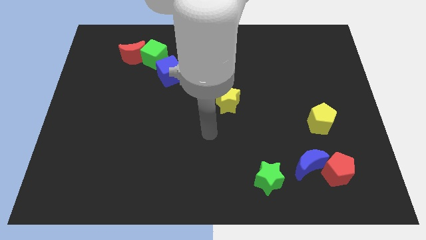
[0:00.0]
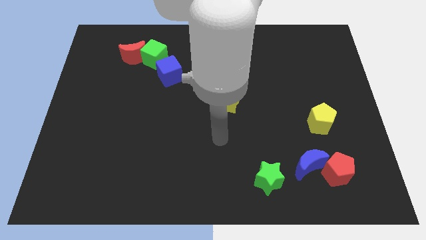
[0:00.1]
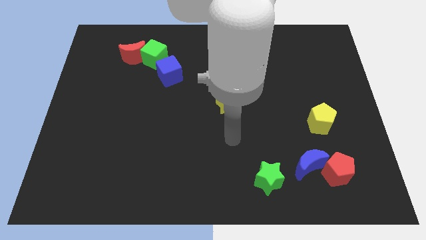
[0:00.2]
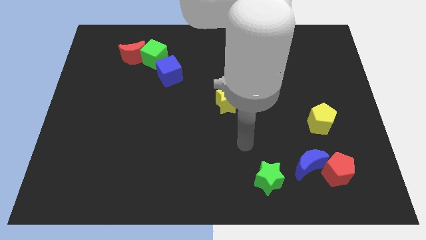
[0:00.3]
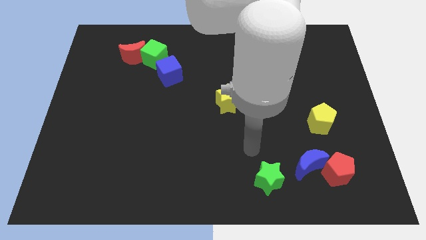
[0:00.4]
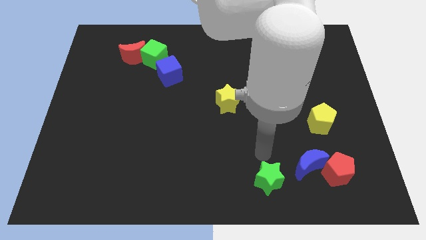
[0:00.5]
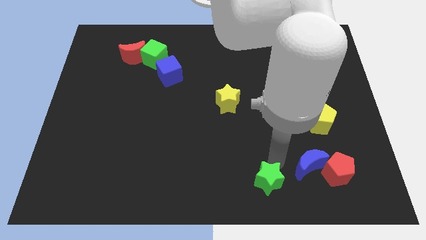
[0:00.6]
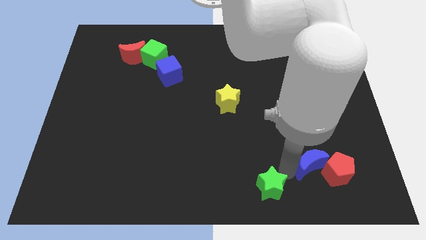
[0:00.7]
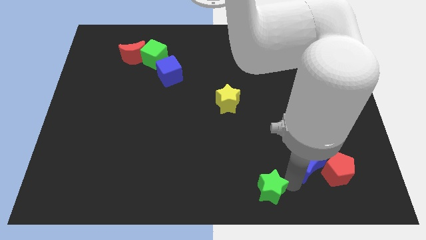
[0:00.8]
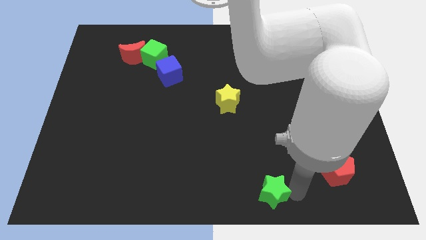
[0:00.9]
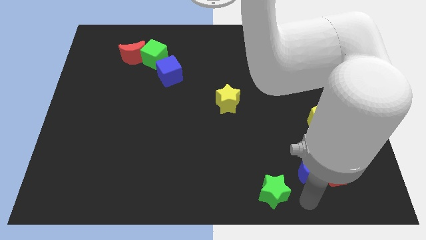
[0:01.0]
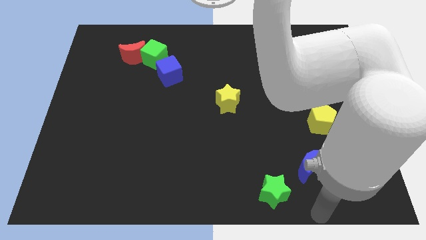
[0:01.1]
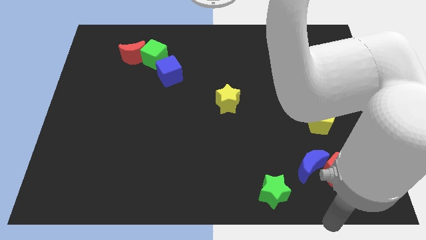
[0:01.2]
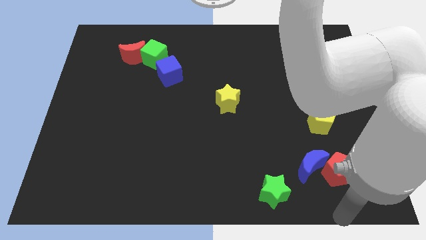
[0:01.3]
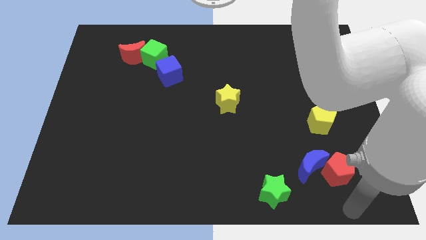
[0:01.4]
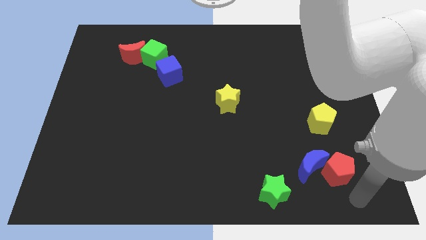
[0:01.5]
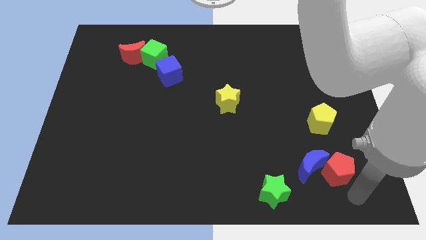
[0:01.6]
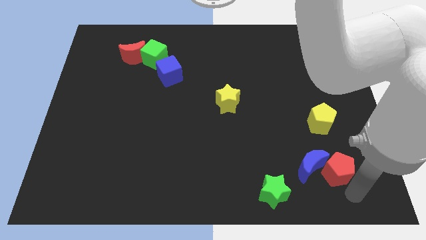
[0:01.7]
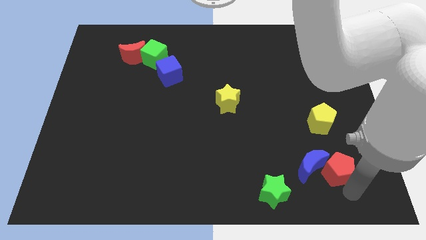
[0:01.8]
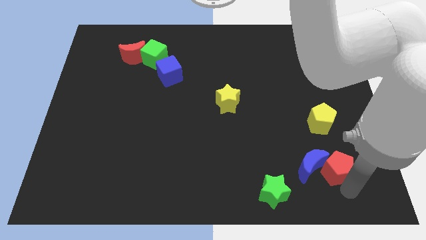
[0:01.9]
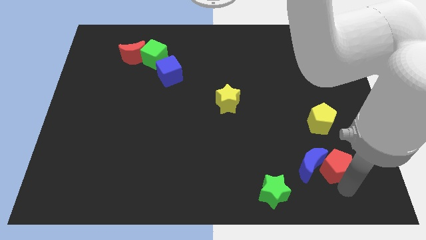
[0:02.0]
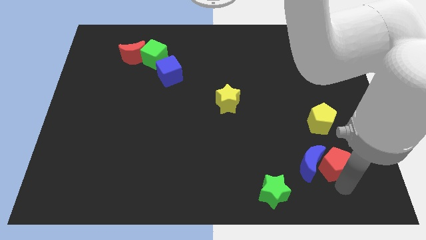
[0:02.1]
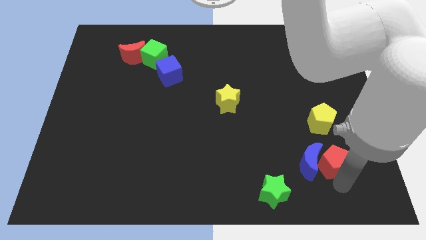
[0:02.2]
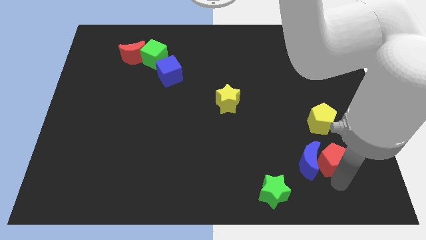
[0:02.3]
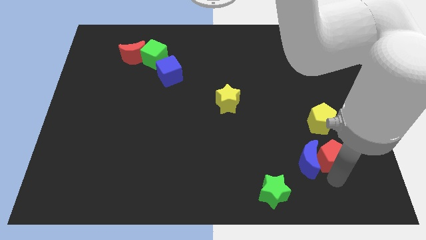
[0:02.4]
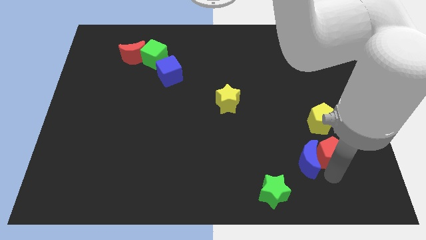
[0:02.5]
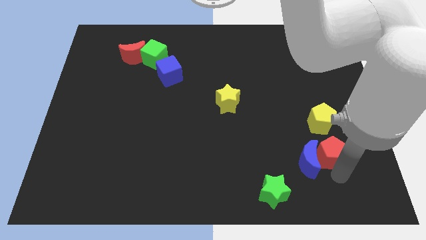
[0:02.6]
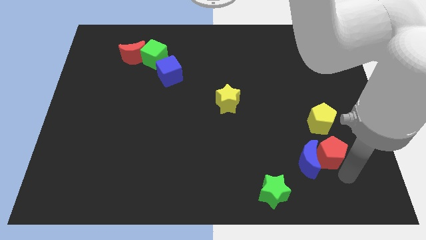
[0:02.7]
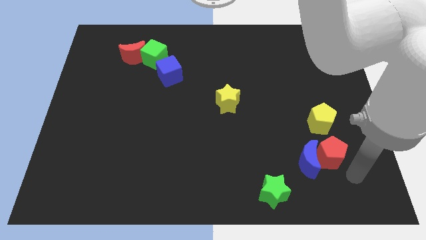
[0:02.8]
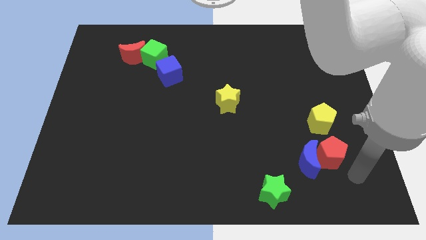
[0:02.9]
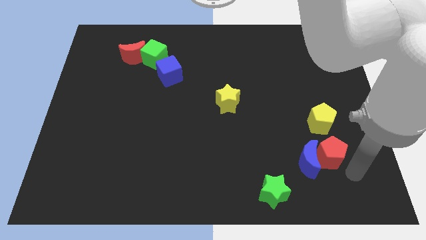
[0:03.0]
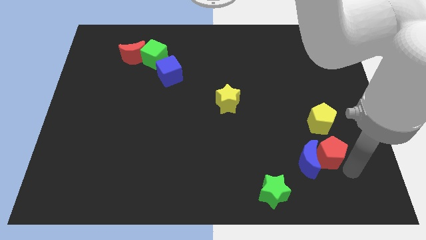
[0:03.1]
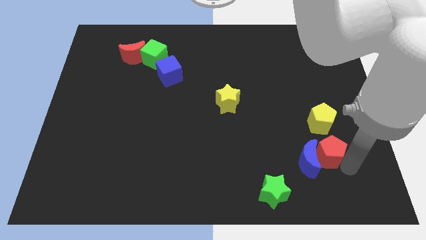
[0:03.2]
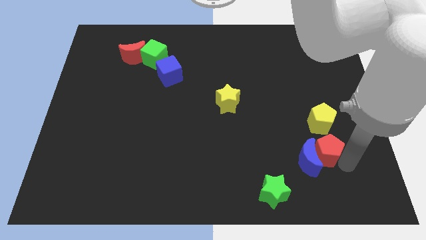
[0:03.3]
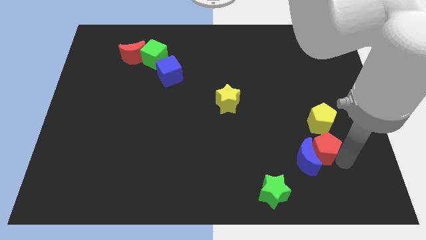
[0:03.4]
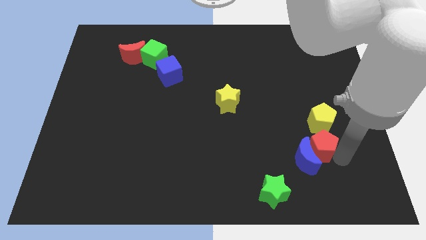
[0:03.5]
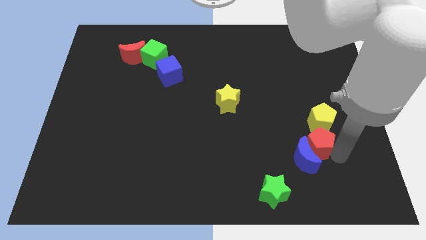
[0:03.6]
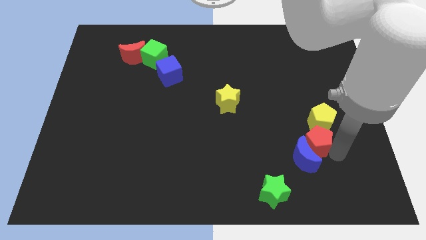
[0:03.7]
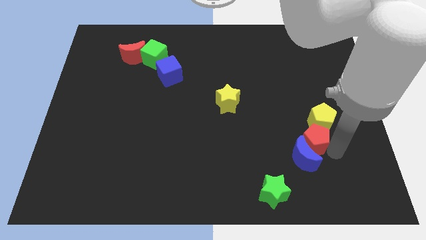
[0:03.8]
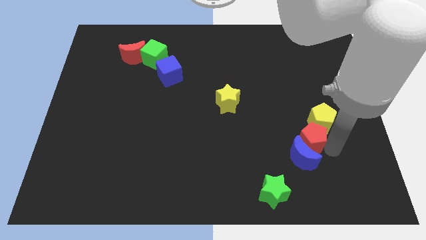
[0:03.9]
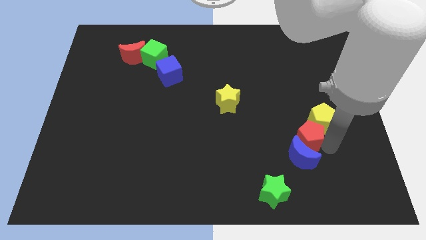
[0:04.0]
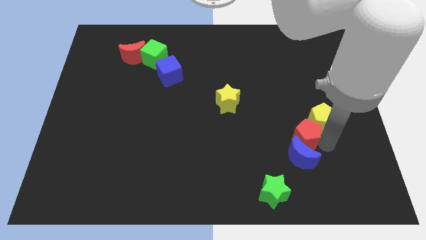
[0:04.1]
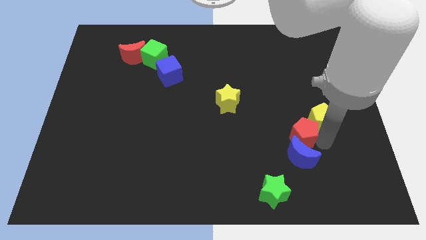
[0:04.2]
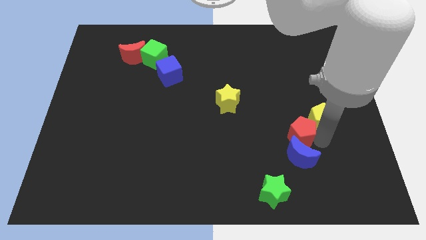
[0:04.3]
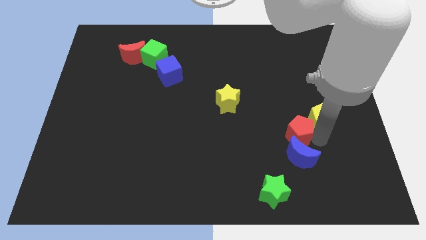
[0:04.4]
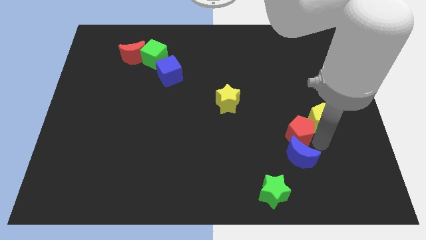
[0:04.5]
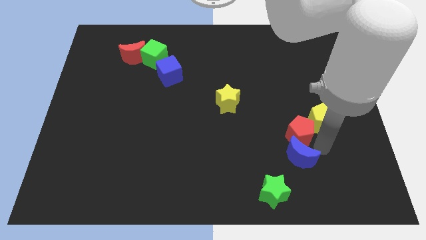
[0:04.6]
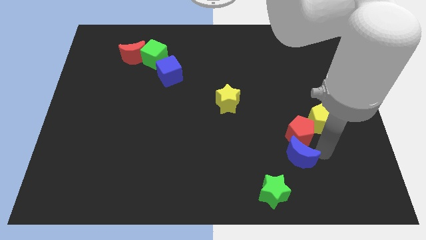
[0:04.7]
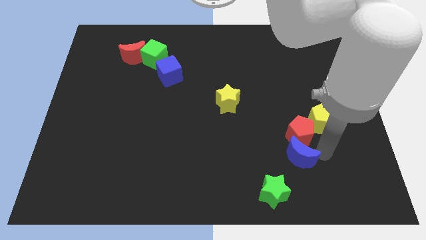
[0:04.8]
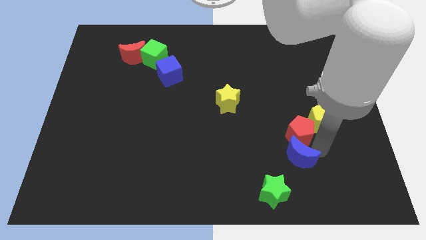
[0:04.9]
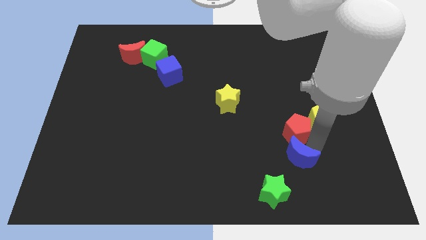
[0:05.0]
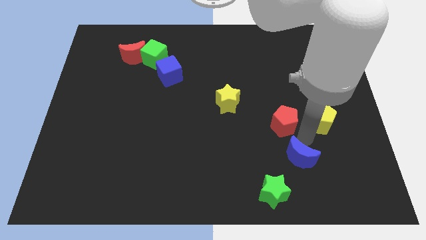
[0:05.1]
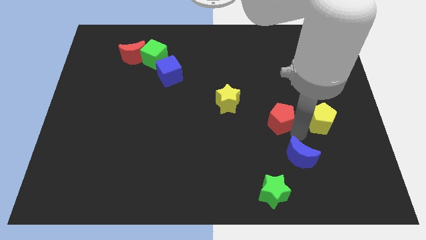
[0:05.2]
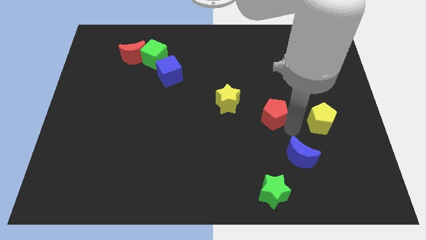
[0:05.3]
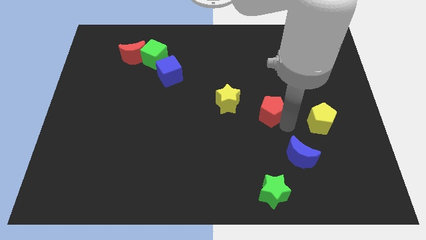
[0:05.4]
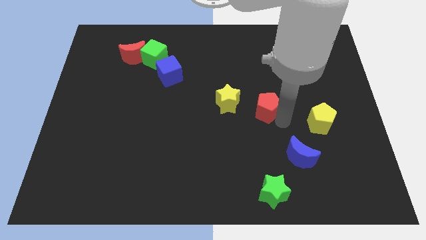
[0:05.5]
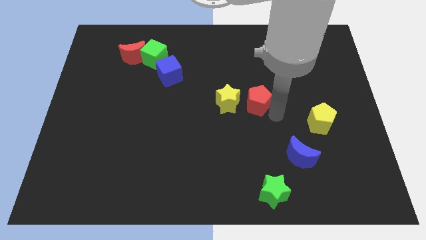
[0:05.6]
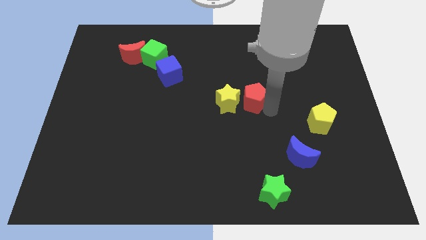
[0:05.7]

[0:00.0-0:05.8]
push the red pentagon to the yellow star

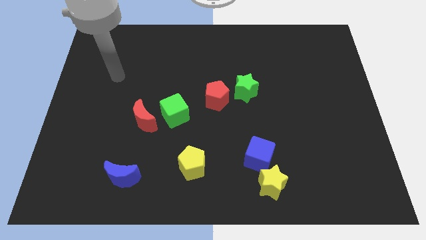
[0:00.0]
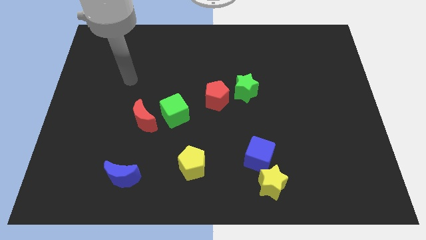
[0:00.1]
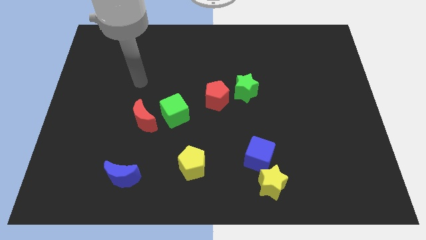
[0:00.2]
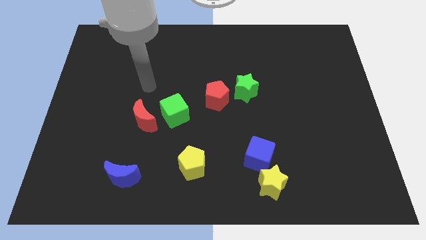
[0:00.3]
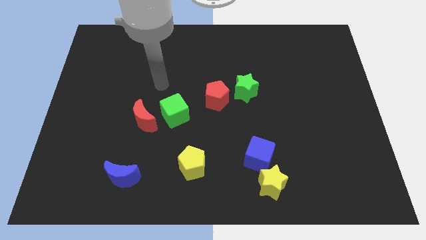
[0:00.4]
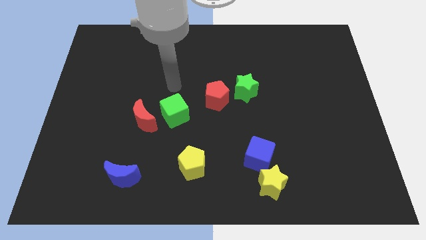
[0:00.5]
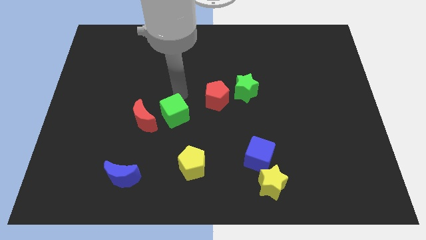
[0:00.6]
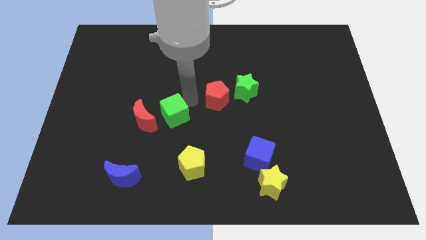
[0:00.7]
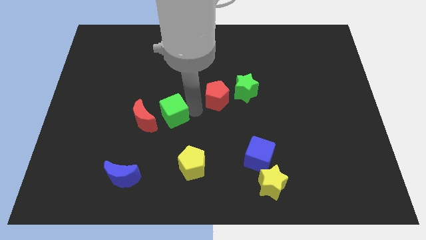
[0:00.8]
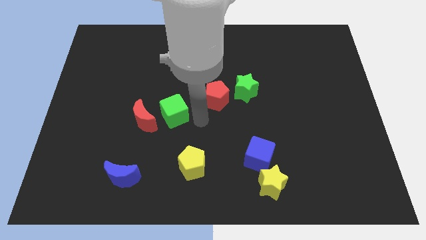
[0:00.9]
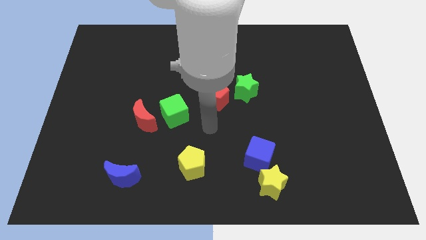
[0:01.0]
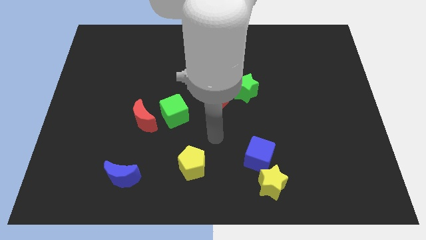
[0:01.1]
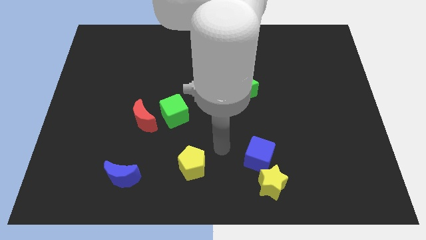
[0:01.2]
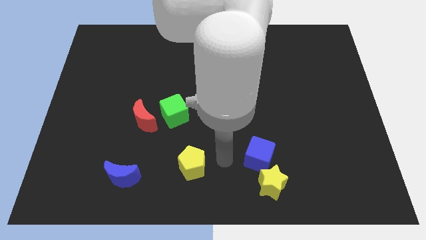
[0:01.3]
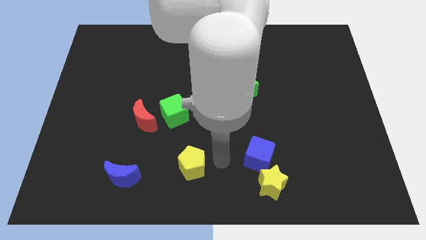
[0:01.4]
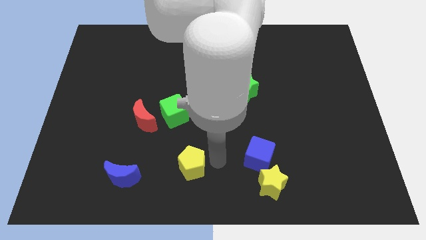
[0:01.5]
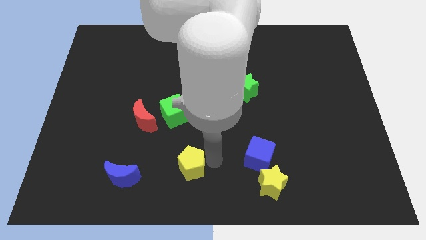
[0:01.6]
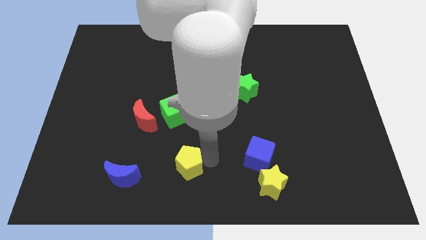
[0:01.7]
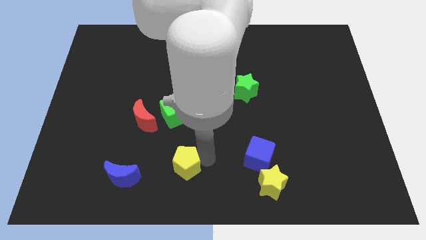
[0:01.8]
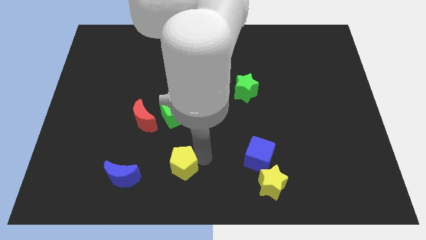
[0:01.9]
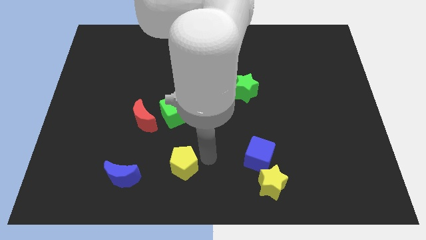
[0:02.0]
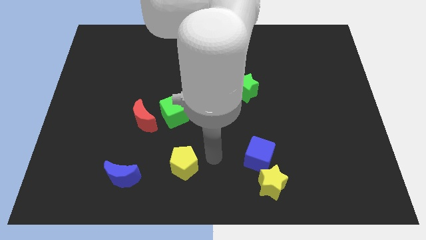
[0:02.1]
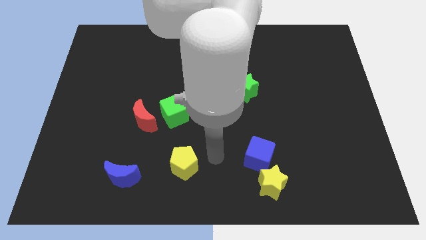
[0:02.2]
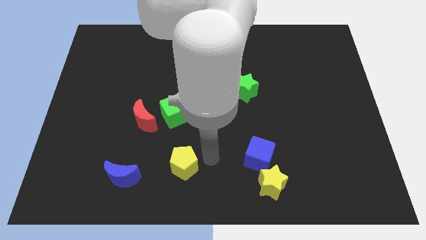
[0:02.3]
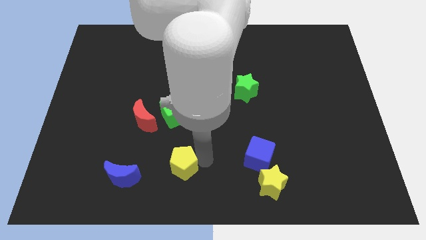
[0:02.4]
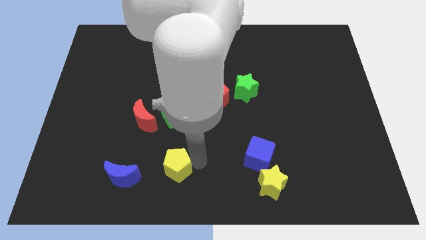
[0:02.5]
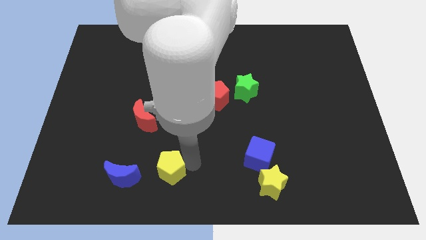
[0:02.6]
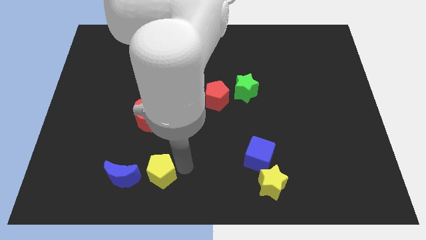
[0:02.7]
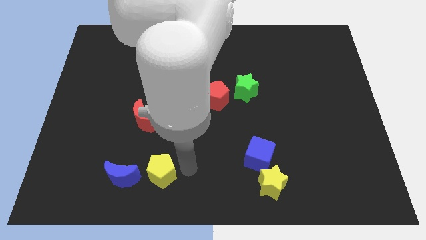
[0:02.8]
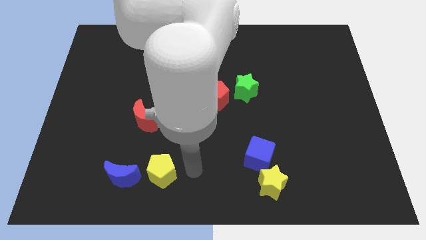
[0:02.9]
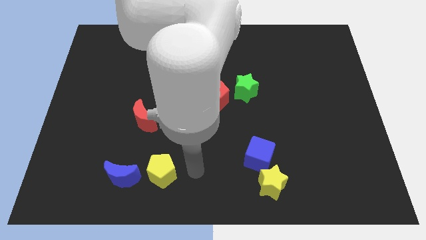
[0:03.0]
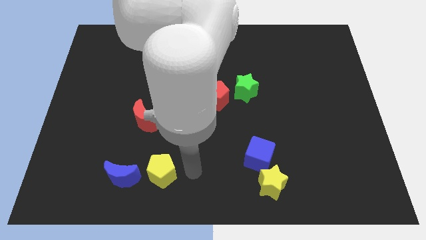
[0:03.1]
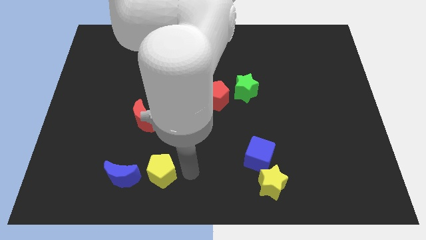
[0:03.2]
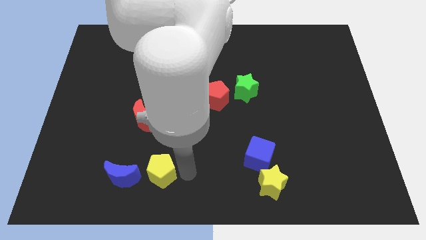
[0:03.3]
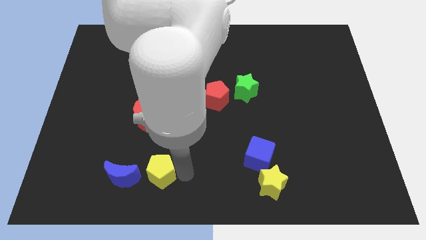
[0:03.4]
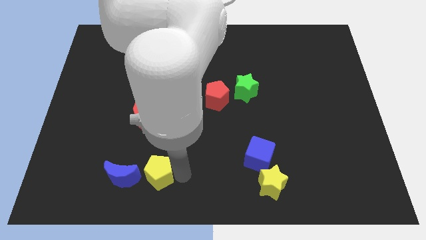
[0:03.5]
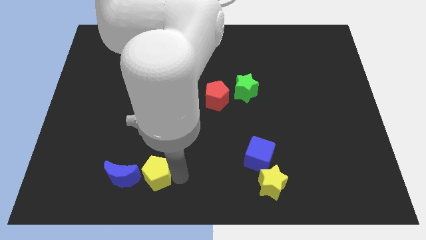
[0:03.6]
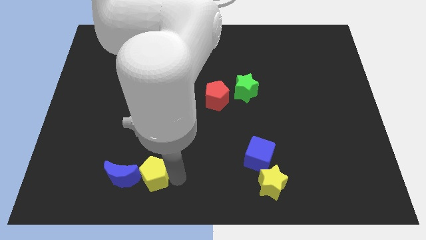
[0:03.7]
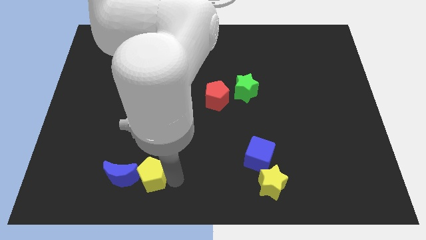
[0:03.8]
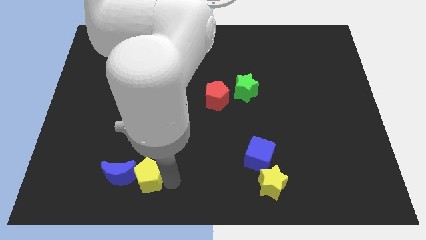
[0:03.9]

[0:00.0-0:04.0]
put the yellow pentagon towards the blue moon
